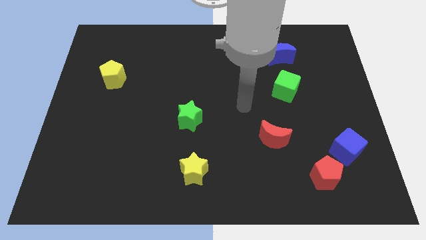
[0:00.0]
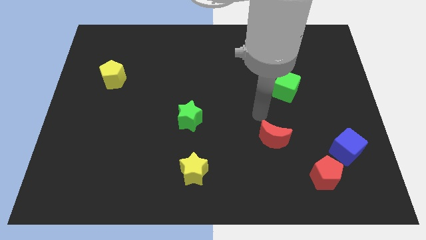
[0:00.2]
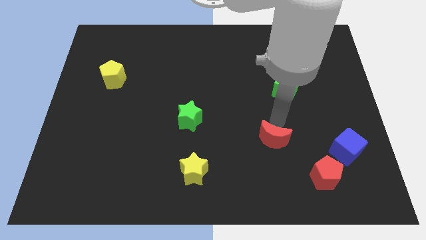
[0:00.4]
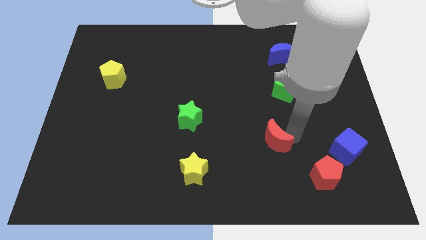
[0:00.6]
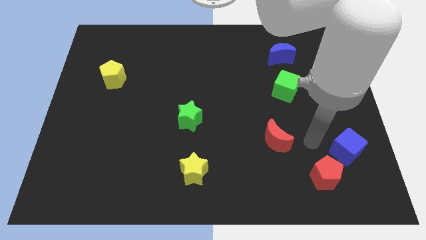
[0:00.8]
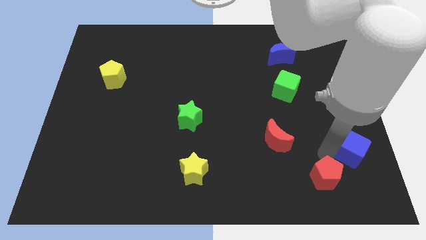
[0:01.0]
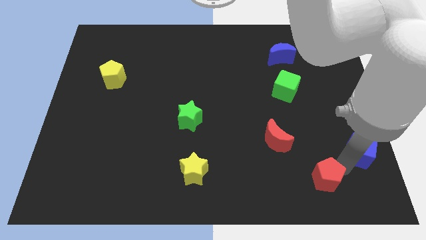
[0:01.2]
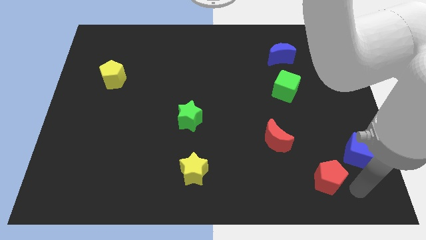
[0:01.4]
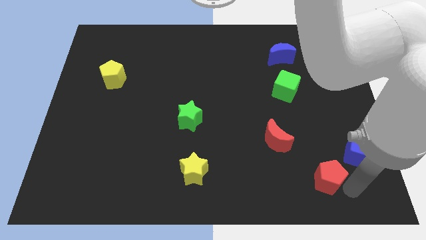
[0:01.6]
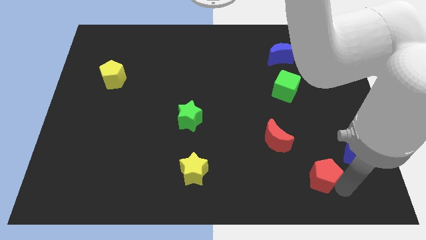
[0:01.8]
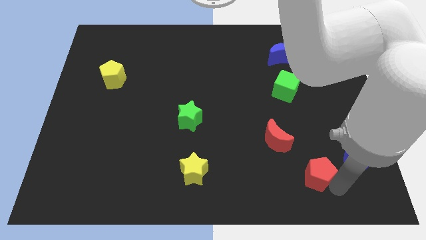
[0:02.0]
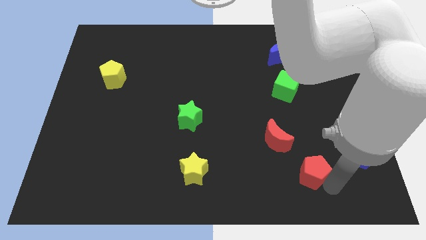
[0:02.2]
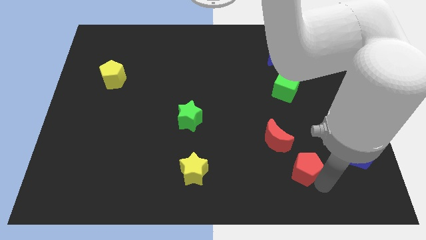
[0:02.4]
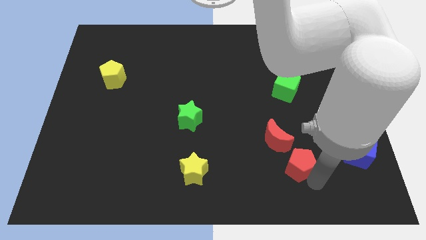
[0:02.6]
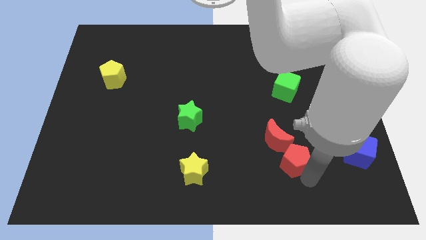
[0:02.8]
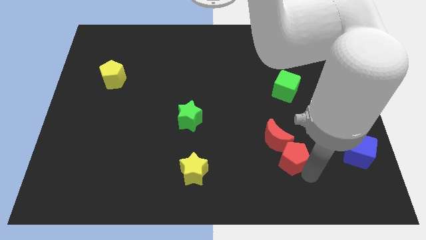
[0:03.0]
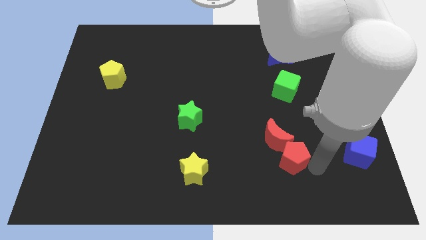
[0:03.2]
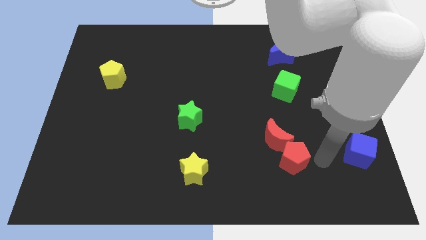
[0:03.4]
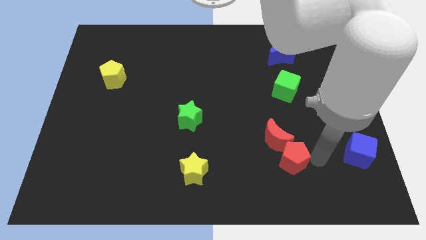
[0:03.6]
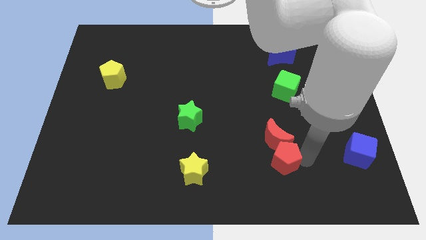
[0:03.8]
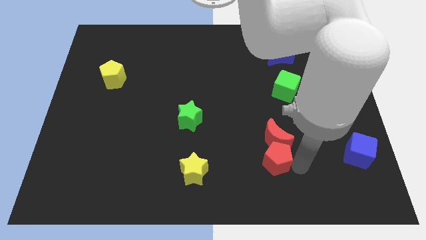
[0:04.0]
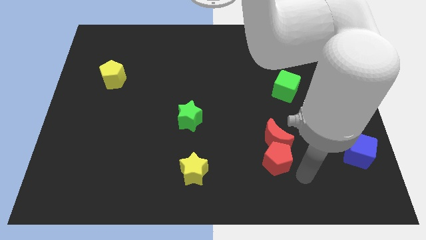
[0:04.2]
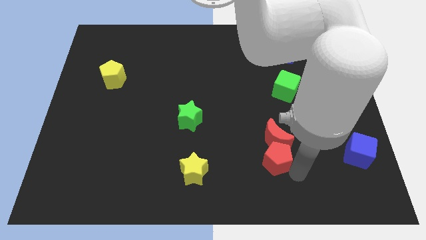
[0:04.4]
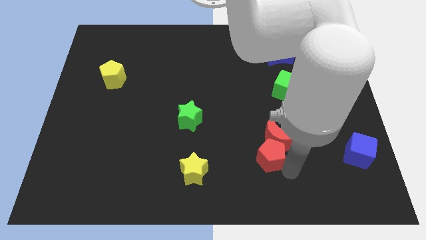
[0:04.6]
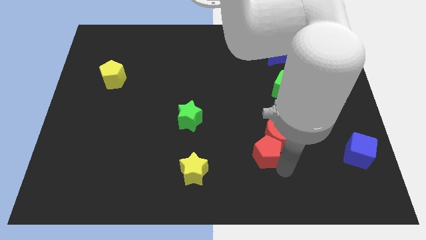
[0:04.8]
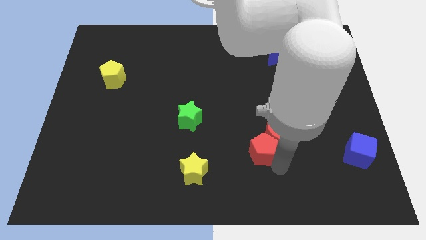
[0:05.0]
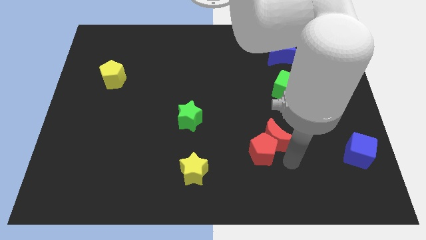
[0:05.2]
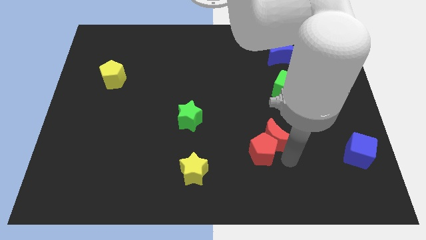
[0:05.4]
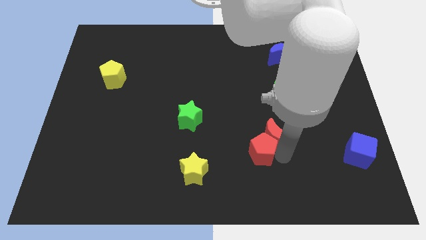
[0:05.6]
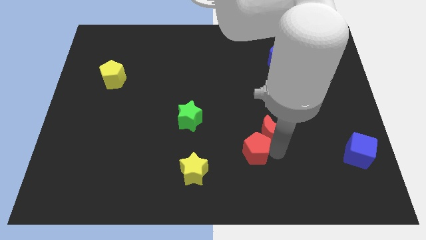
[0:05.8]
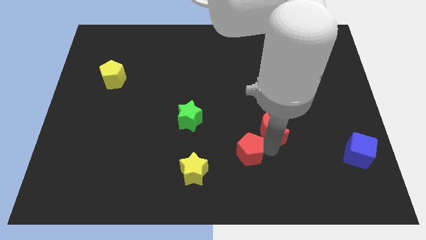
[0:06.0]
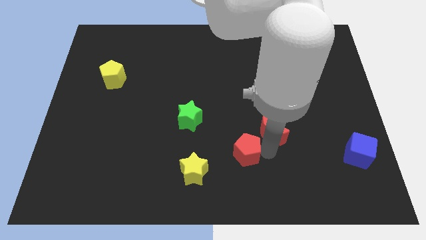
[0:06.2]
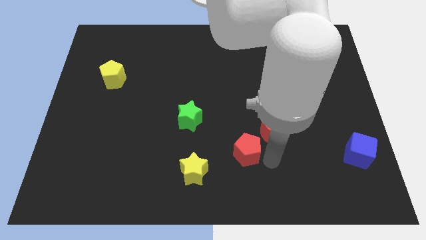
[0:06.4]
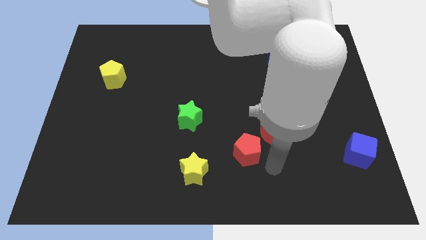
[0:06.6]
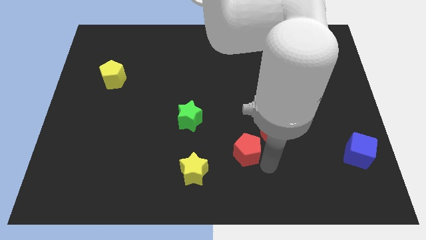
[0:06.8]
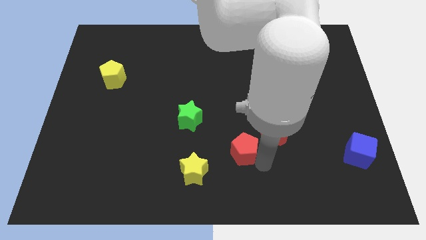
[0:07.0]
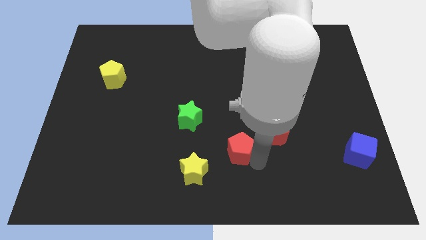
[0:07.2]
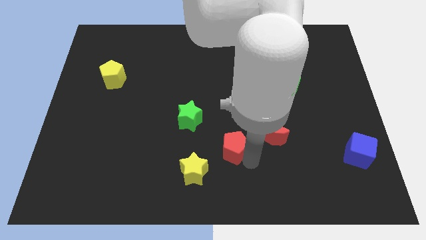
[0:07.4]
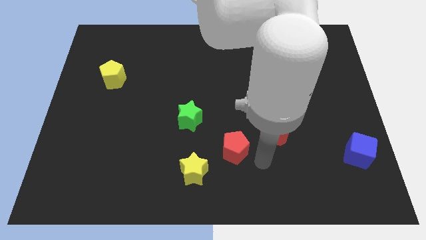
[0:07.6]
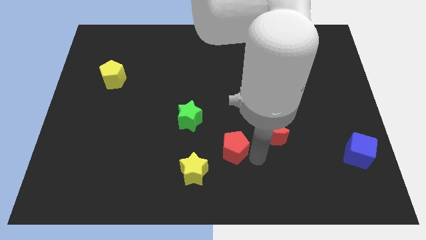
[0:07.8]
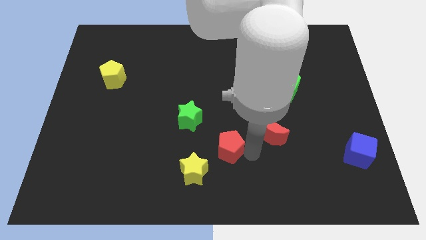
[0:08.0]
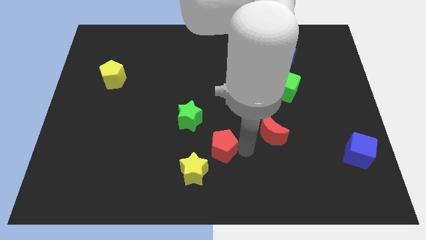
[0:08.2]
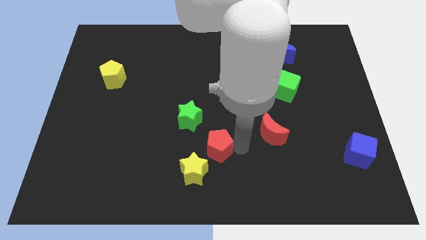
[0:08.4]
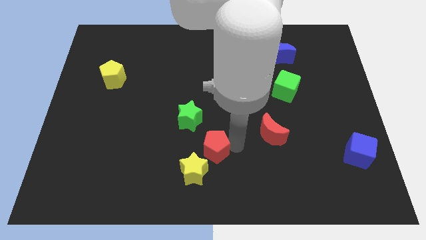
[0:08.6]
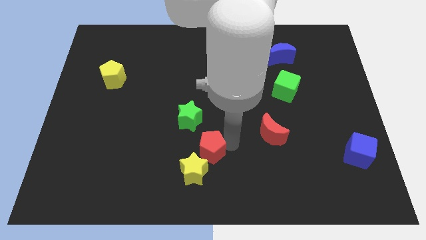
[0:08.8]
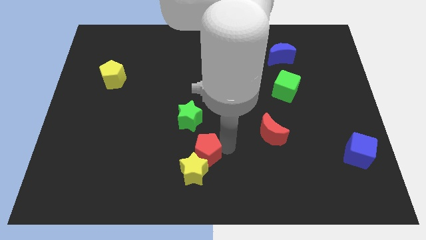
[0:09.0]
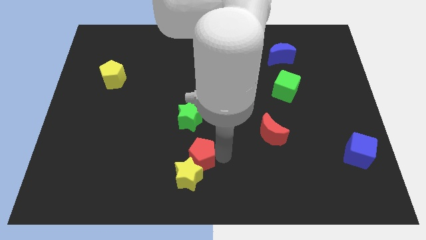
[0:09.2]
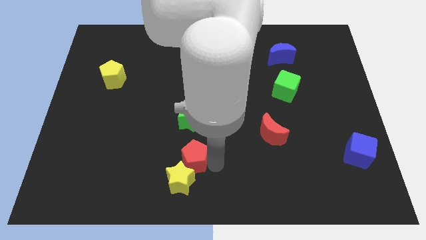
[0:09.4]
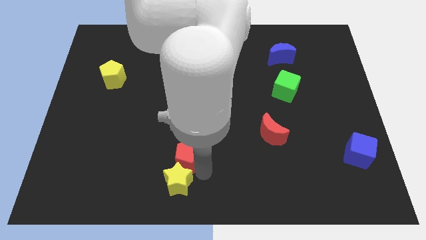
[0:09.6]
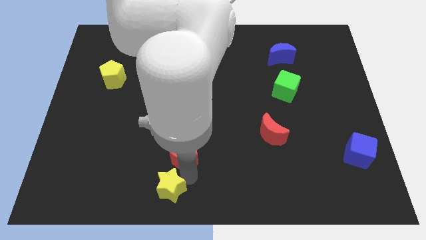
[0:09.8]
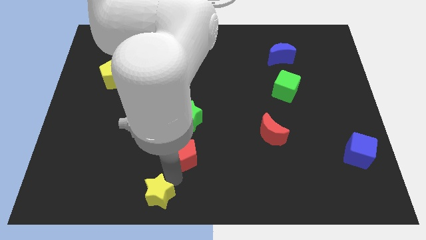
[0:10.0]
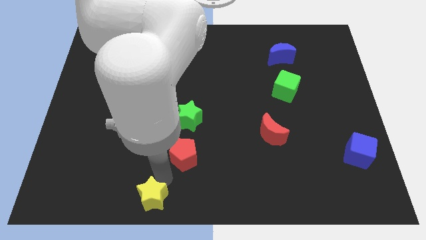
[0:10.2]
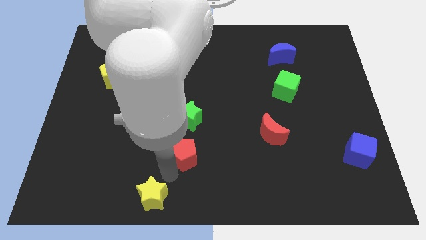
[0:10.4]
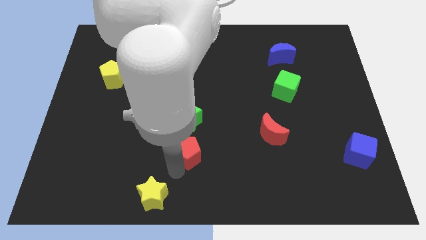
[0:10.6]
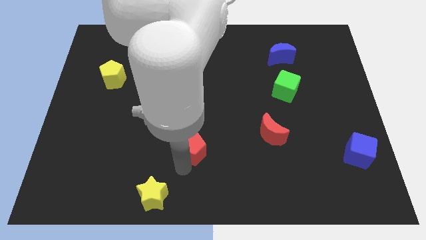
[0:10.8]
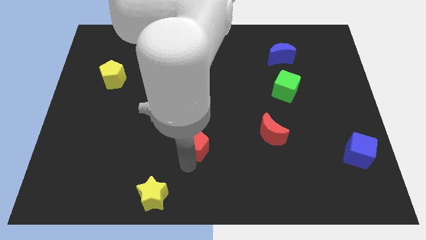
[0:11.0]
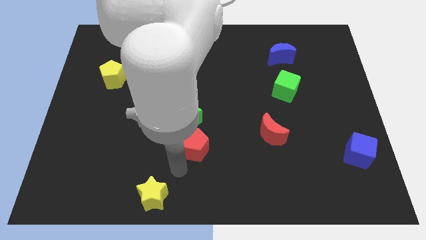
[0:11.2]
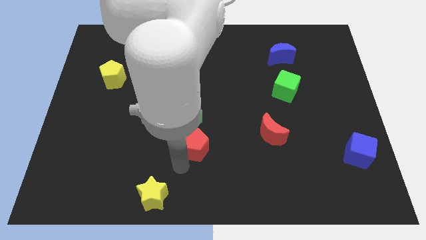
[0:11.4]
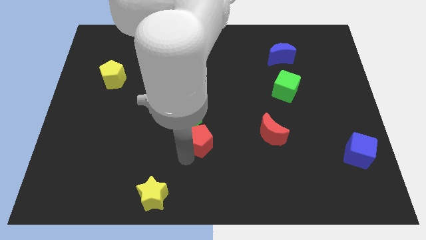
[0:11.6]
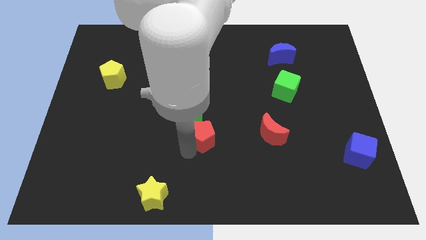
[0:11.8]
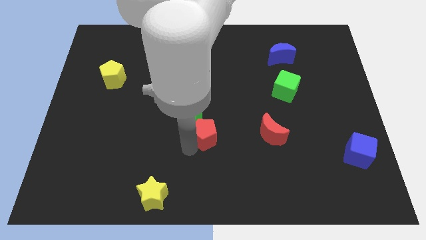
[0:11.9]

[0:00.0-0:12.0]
slide the red pentagon next to the green star
